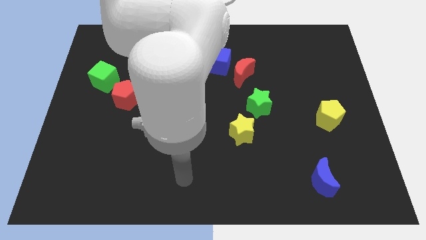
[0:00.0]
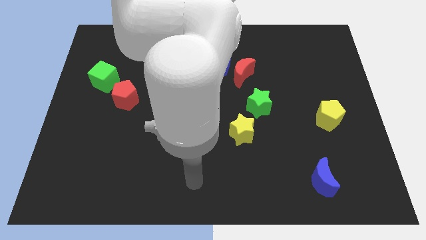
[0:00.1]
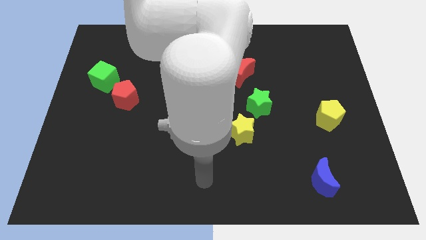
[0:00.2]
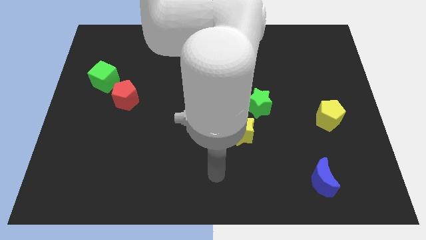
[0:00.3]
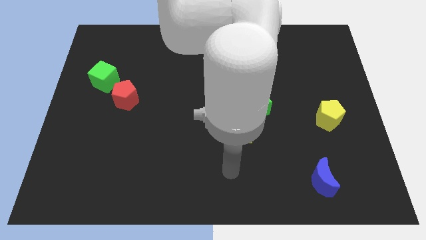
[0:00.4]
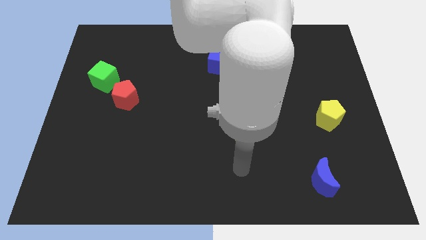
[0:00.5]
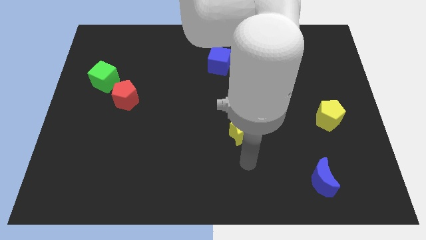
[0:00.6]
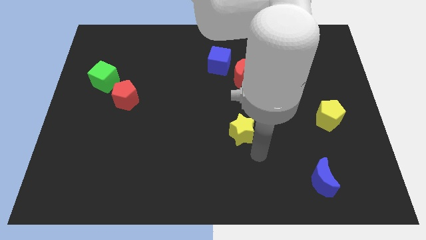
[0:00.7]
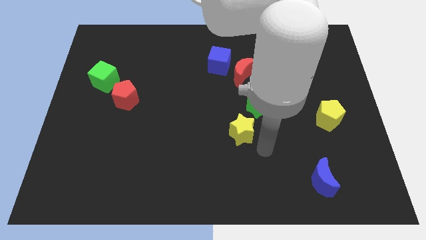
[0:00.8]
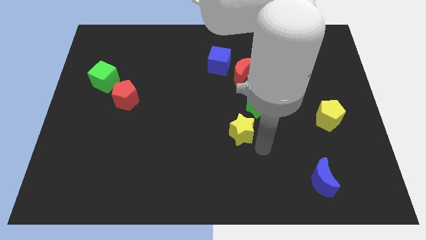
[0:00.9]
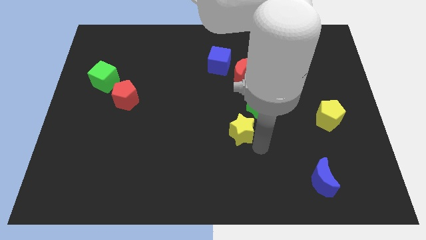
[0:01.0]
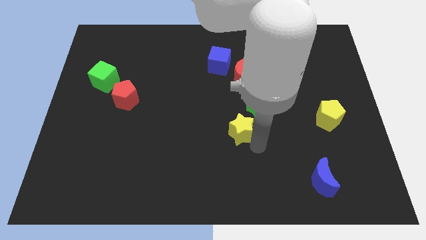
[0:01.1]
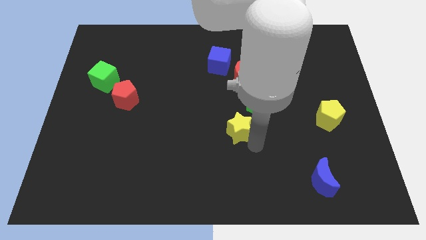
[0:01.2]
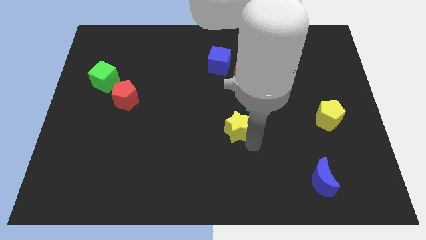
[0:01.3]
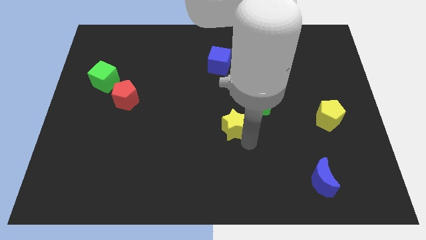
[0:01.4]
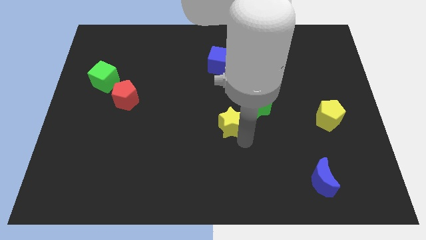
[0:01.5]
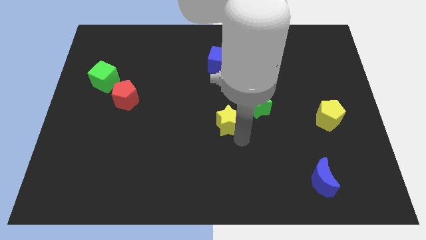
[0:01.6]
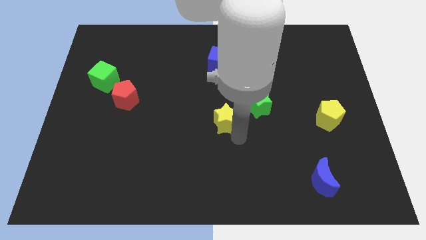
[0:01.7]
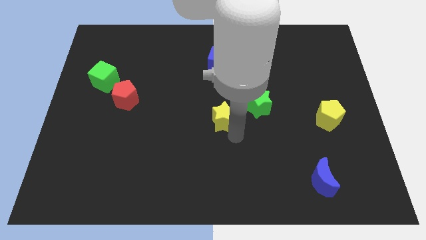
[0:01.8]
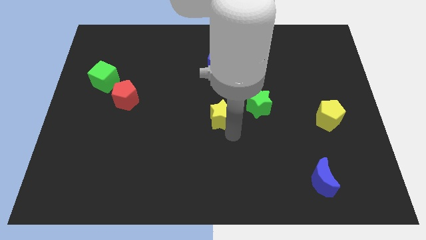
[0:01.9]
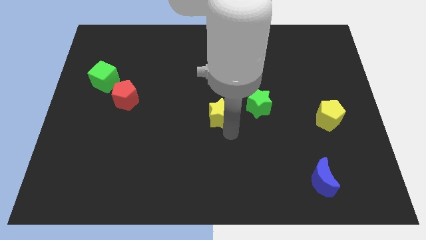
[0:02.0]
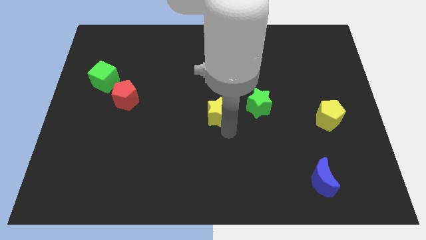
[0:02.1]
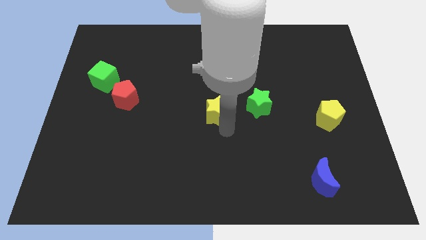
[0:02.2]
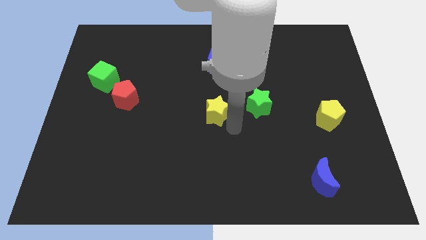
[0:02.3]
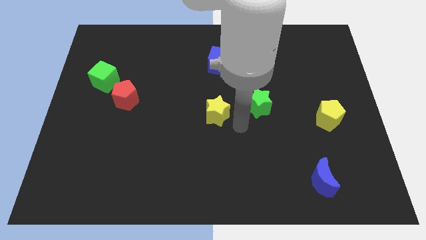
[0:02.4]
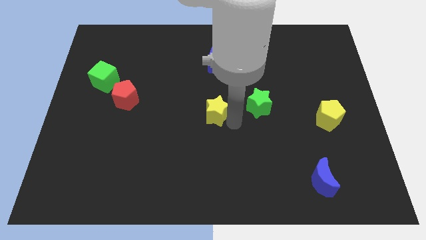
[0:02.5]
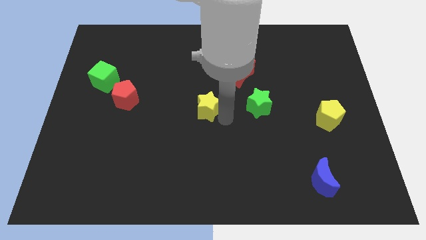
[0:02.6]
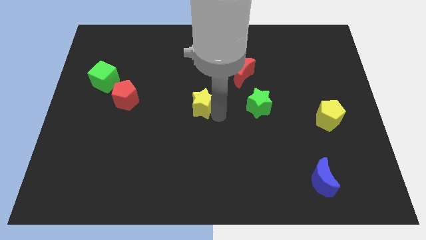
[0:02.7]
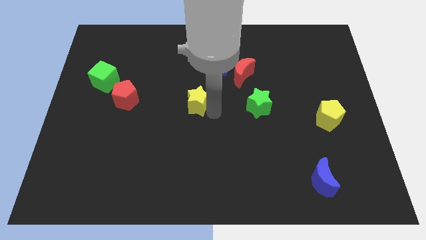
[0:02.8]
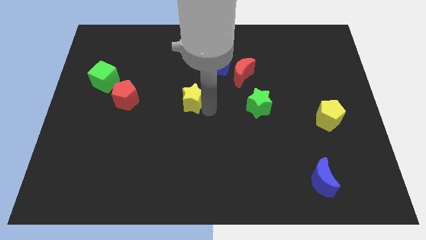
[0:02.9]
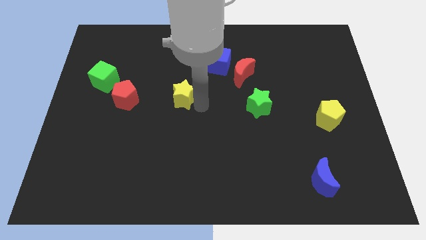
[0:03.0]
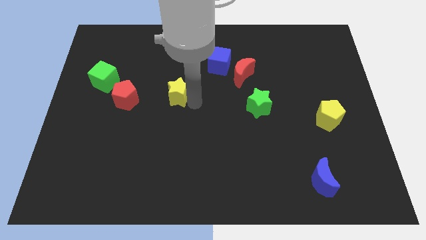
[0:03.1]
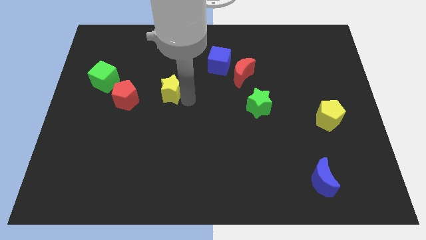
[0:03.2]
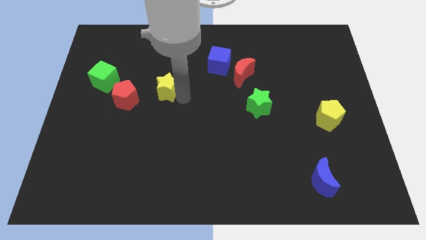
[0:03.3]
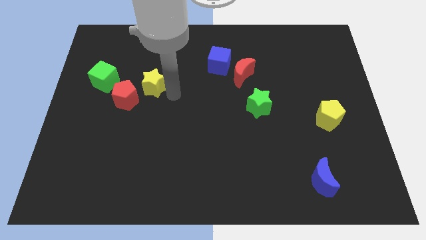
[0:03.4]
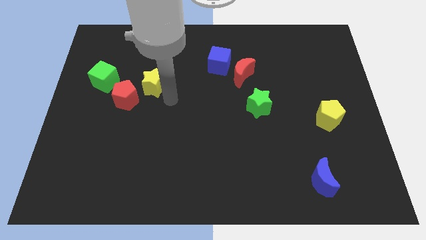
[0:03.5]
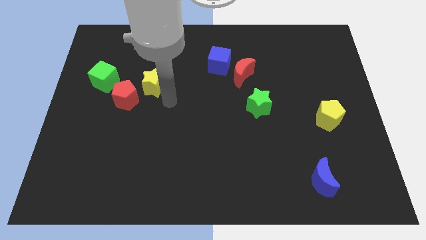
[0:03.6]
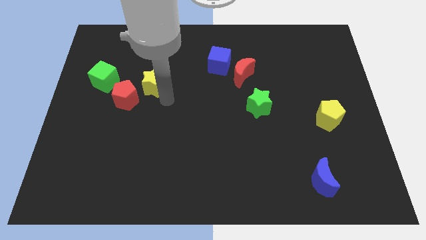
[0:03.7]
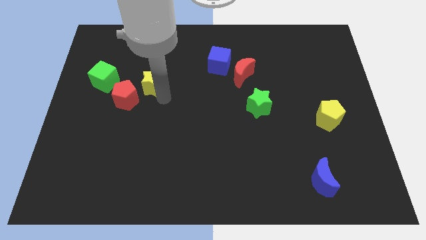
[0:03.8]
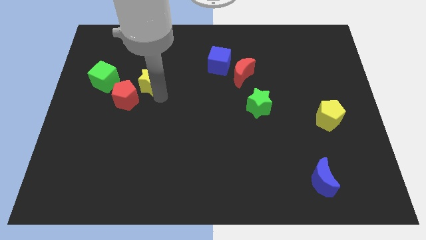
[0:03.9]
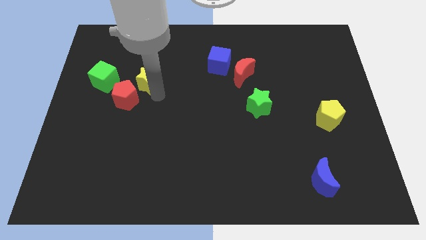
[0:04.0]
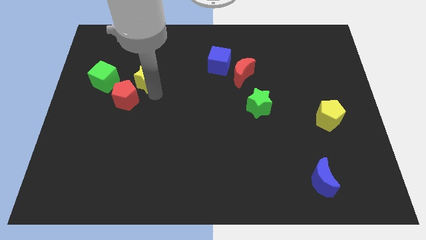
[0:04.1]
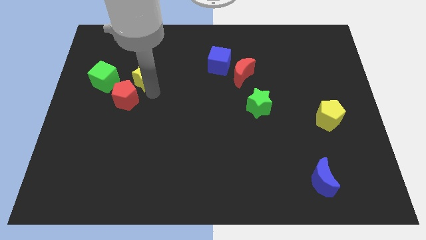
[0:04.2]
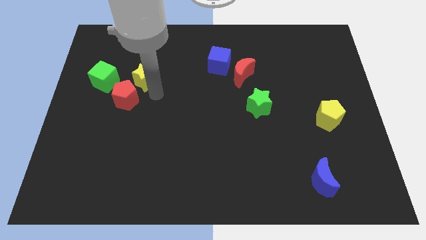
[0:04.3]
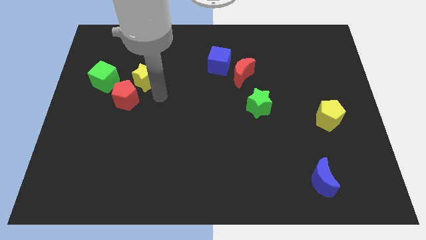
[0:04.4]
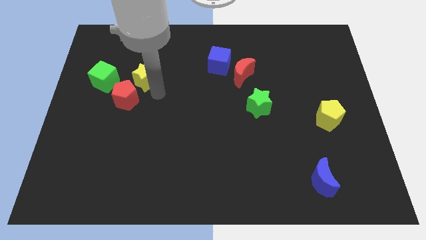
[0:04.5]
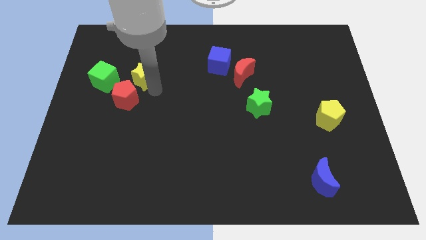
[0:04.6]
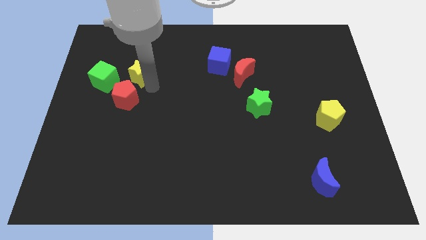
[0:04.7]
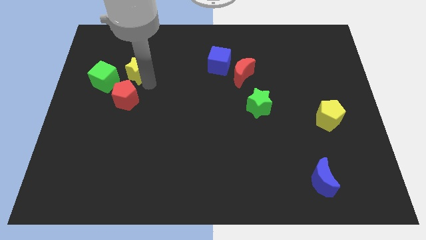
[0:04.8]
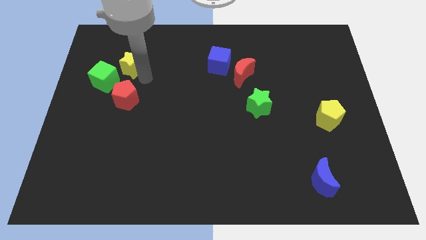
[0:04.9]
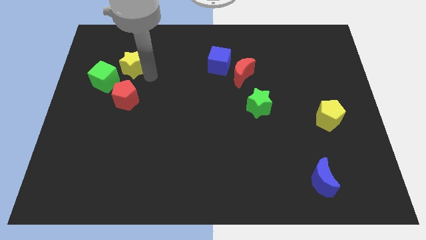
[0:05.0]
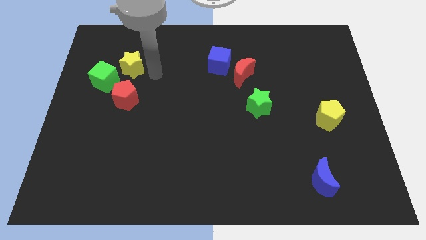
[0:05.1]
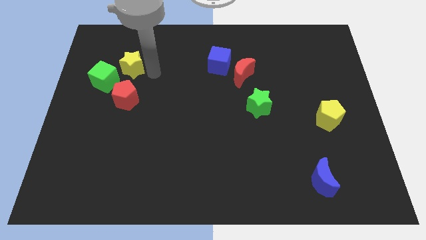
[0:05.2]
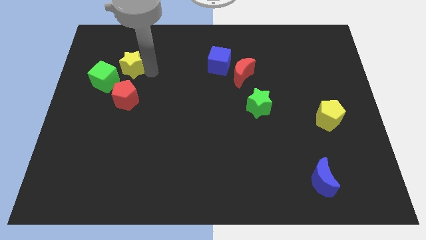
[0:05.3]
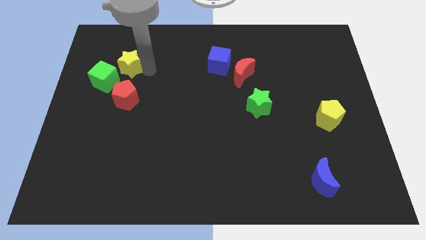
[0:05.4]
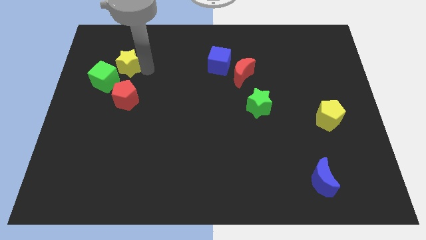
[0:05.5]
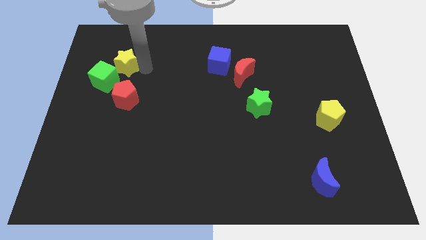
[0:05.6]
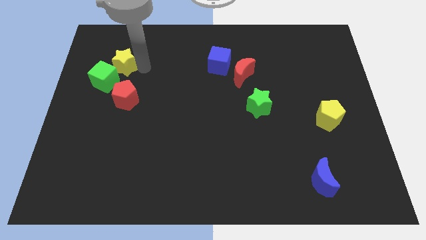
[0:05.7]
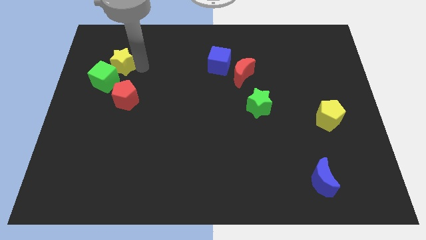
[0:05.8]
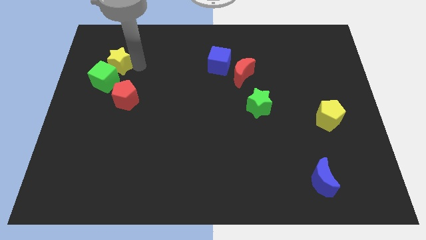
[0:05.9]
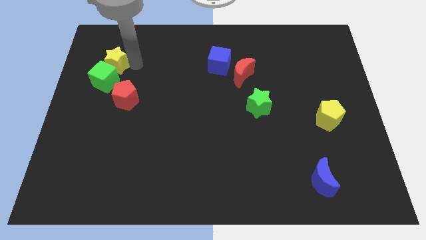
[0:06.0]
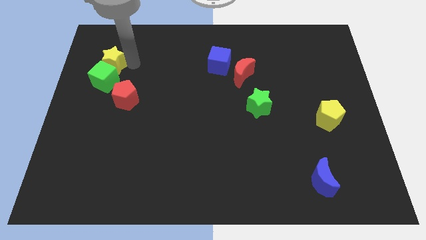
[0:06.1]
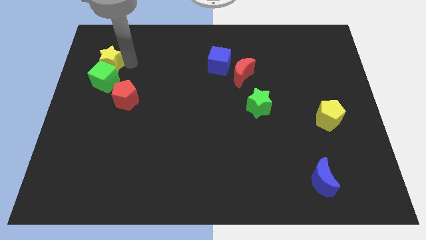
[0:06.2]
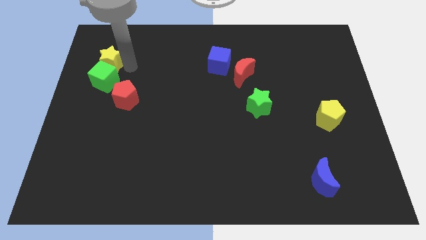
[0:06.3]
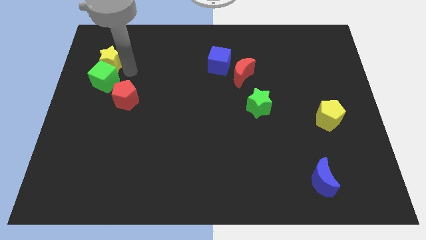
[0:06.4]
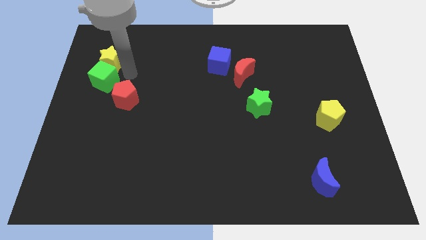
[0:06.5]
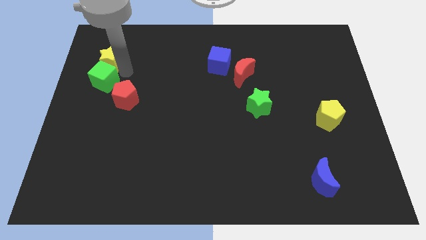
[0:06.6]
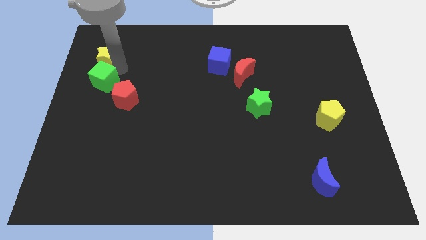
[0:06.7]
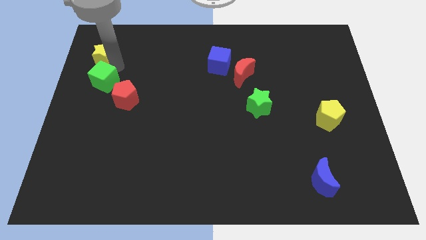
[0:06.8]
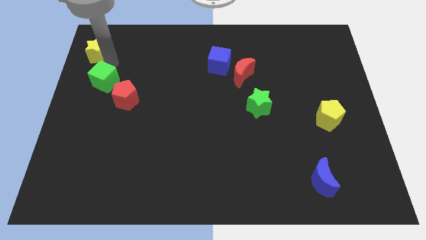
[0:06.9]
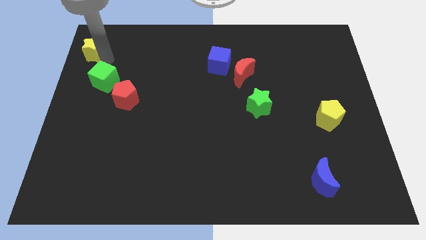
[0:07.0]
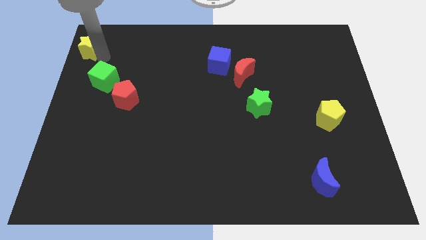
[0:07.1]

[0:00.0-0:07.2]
slide the yellow star to the top left corner

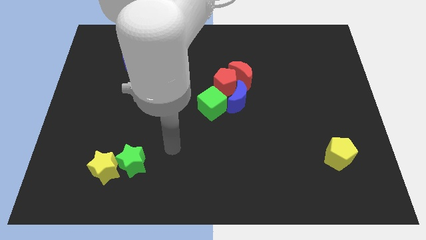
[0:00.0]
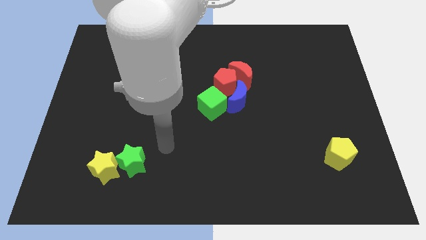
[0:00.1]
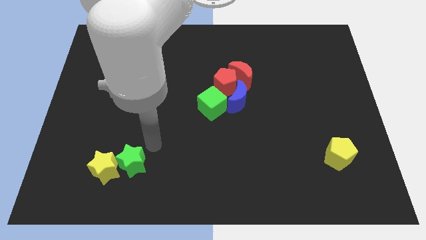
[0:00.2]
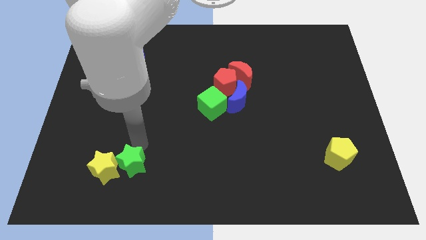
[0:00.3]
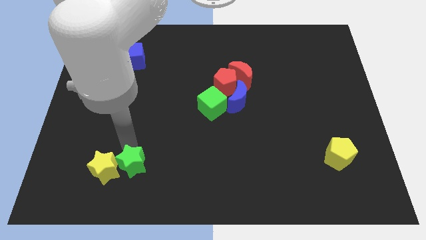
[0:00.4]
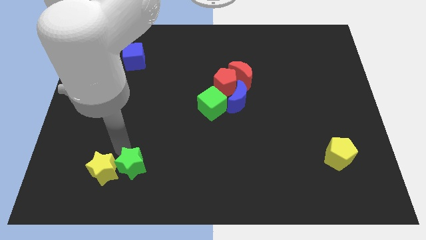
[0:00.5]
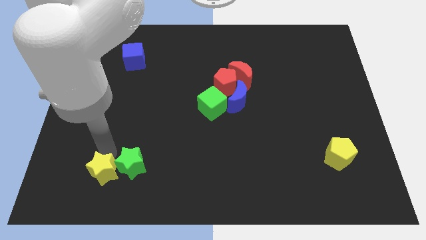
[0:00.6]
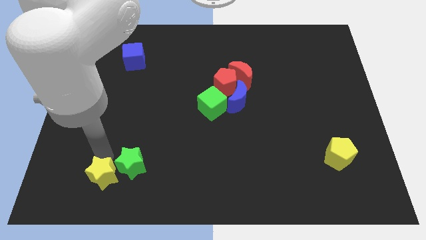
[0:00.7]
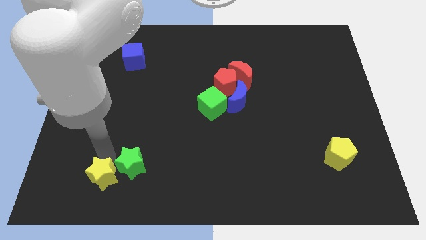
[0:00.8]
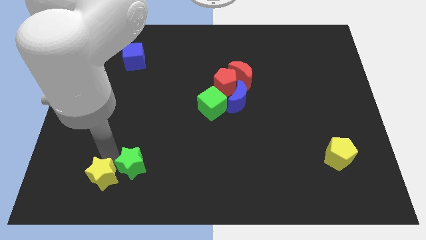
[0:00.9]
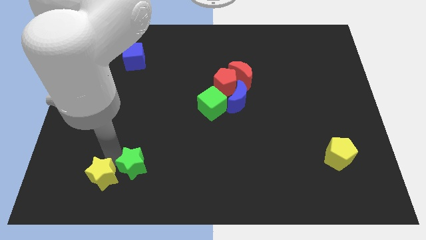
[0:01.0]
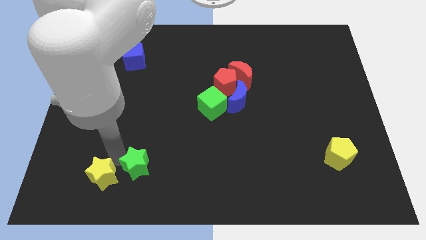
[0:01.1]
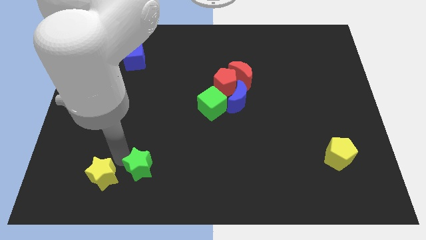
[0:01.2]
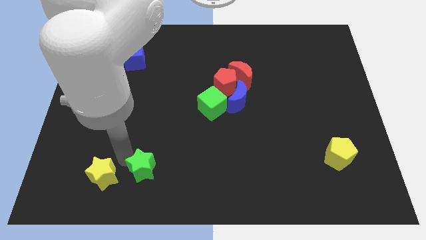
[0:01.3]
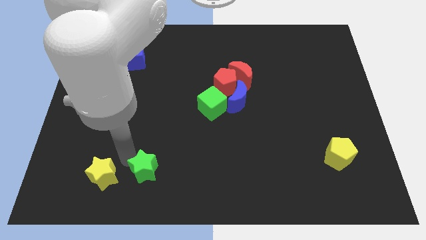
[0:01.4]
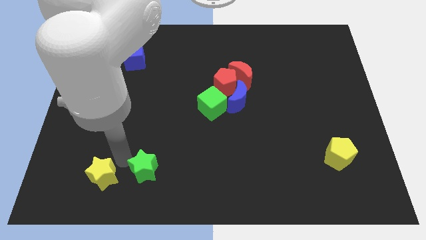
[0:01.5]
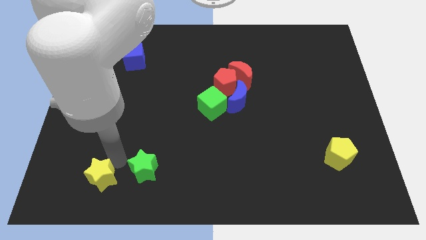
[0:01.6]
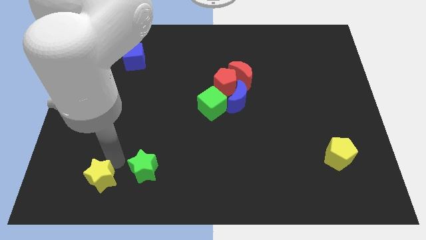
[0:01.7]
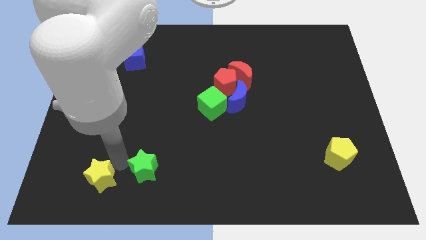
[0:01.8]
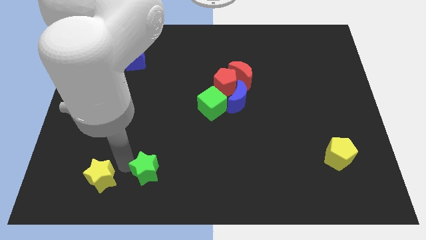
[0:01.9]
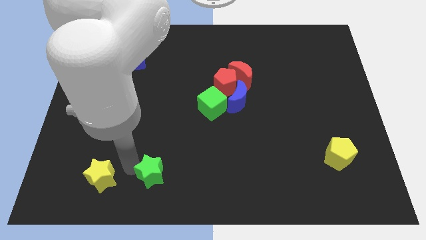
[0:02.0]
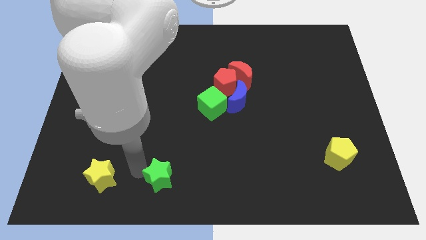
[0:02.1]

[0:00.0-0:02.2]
move the green star to the bottom
